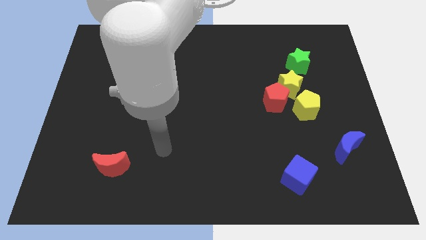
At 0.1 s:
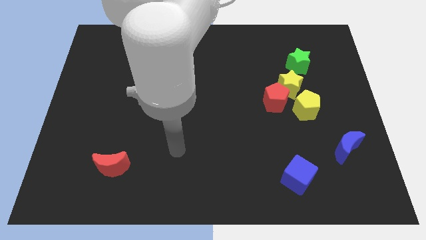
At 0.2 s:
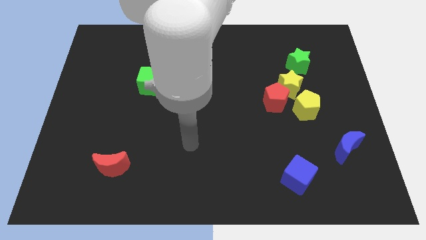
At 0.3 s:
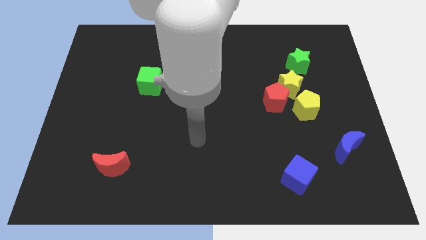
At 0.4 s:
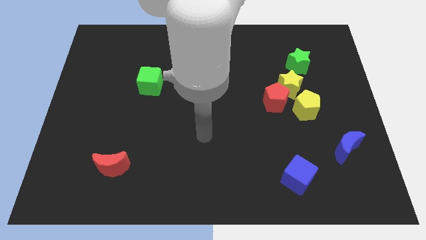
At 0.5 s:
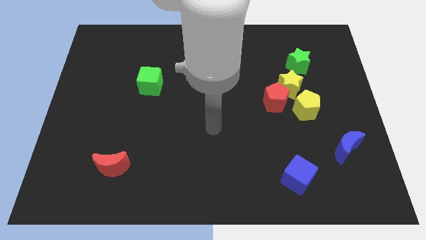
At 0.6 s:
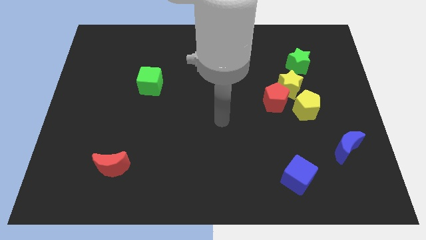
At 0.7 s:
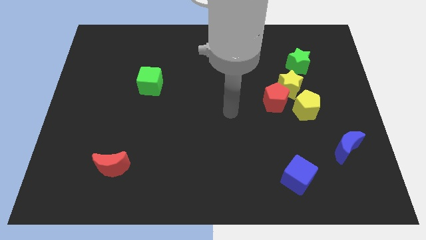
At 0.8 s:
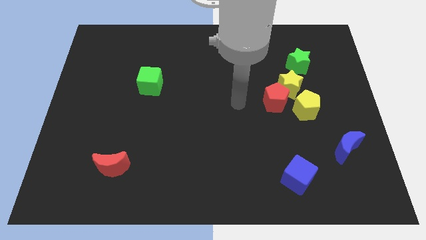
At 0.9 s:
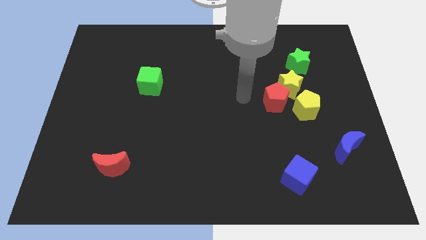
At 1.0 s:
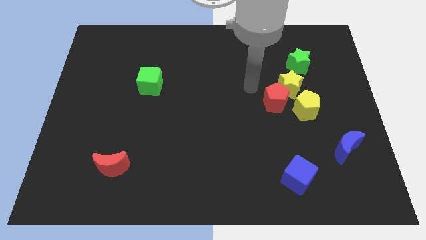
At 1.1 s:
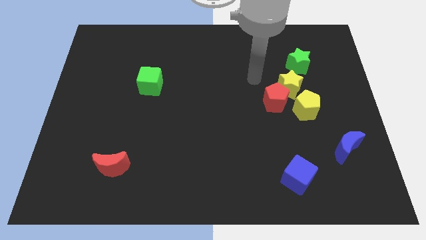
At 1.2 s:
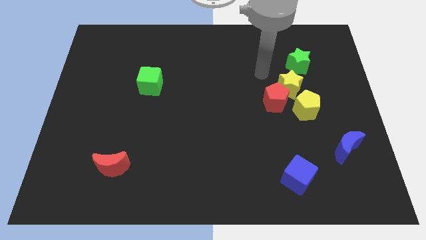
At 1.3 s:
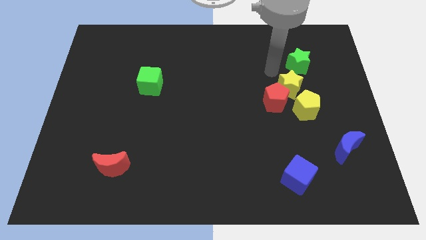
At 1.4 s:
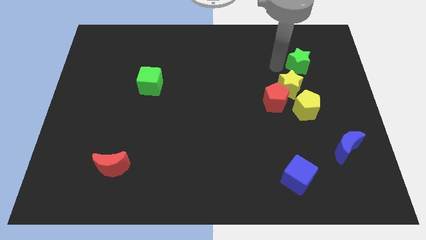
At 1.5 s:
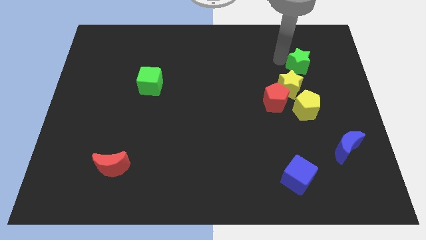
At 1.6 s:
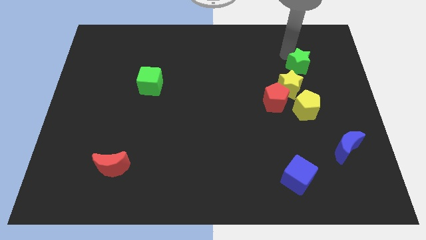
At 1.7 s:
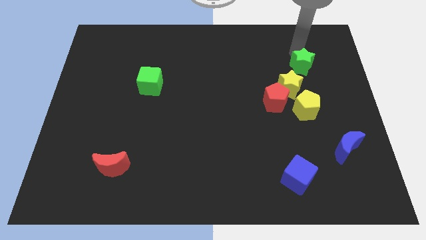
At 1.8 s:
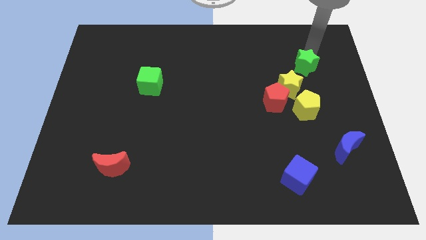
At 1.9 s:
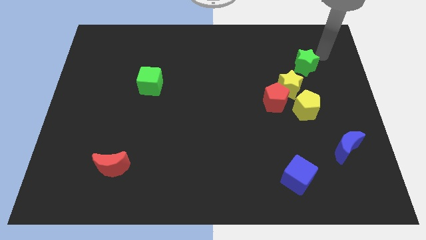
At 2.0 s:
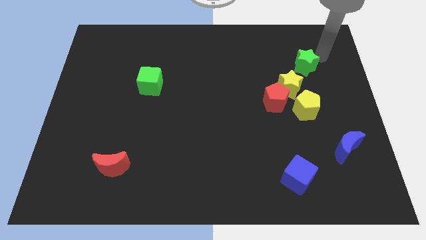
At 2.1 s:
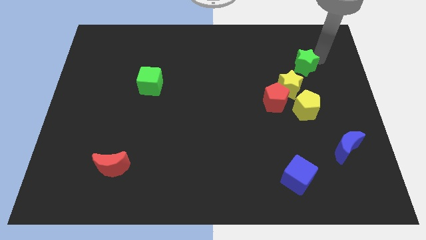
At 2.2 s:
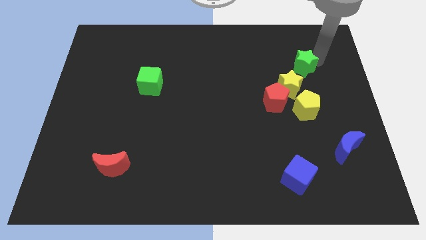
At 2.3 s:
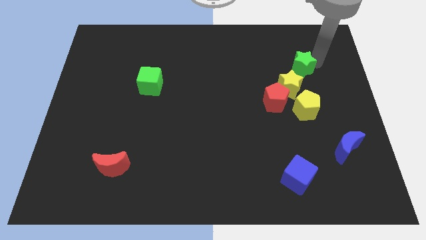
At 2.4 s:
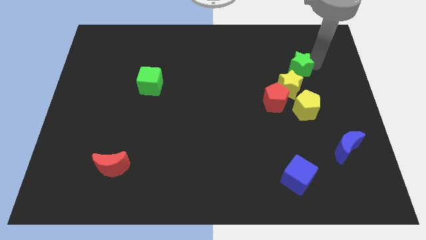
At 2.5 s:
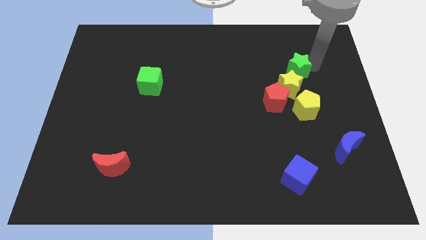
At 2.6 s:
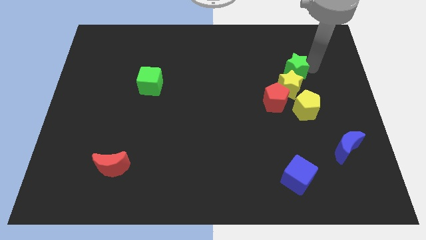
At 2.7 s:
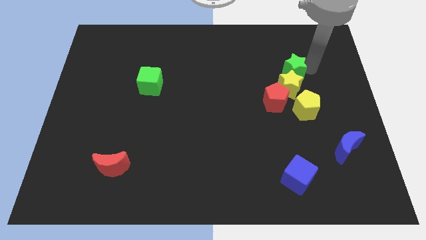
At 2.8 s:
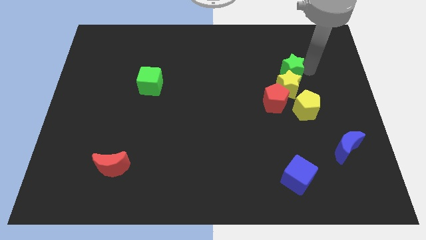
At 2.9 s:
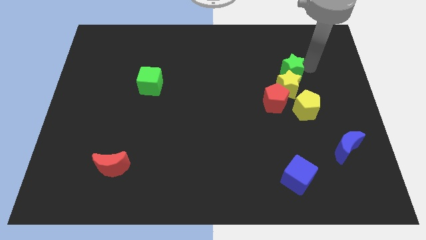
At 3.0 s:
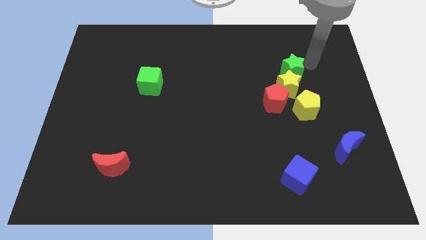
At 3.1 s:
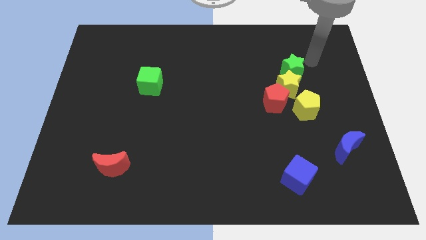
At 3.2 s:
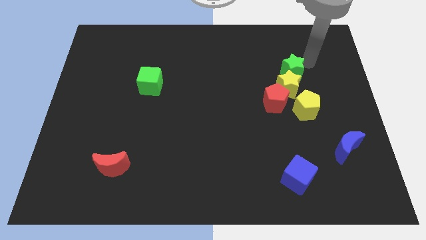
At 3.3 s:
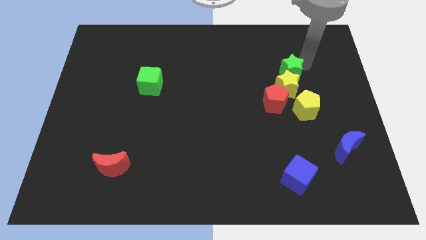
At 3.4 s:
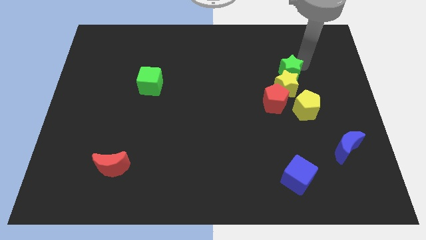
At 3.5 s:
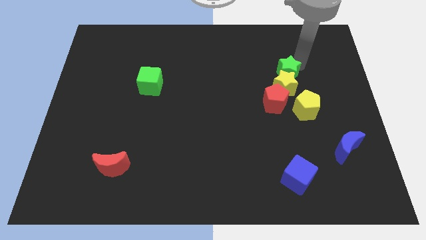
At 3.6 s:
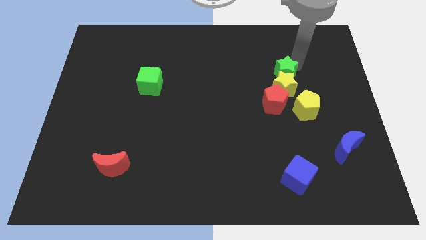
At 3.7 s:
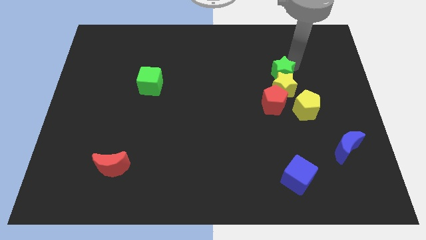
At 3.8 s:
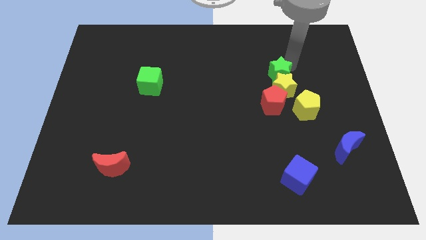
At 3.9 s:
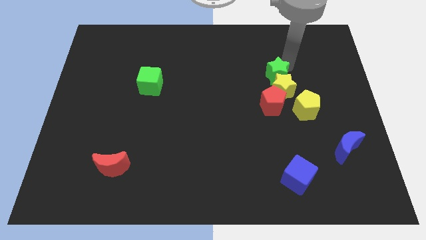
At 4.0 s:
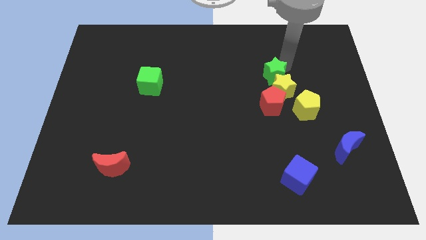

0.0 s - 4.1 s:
move the green star a little down and left diagonally

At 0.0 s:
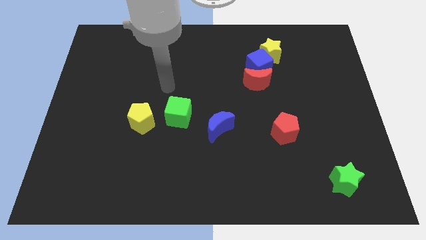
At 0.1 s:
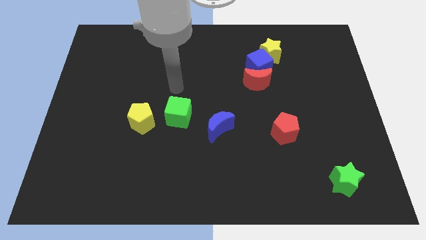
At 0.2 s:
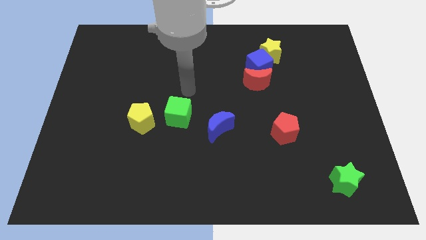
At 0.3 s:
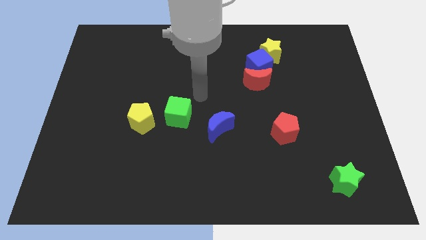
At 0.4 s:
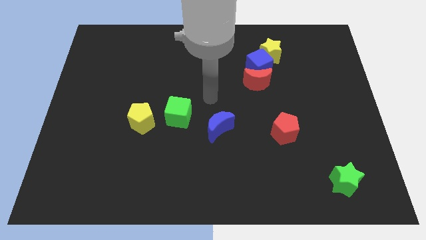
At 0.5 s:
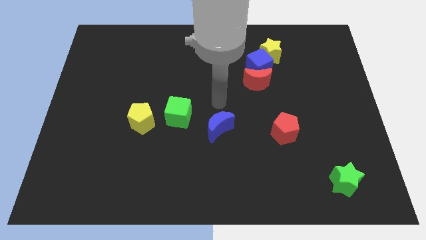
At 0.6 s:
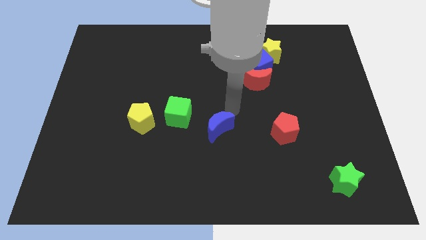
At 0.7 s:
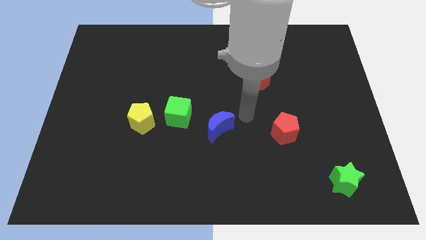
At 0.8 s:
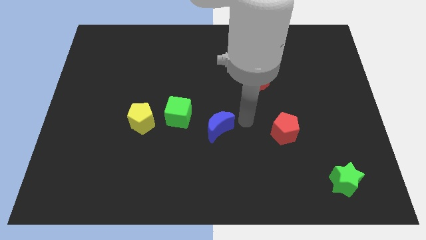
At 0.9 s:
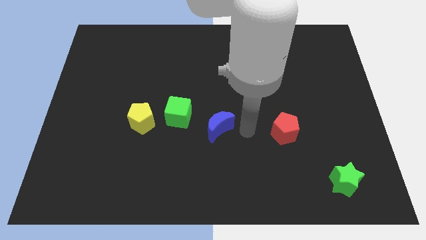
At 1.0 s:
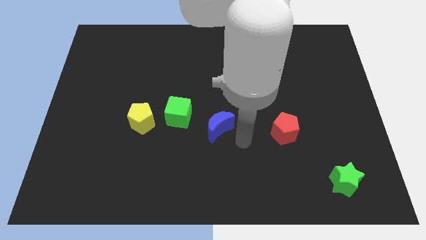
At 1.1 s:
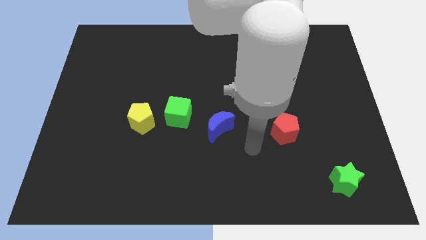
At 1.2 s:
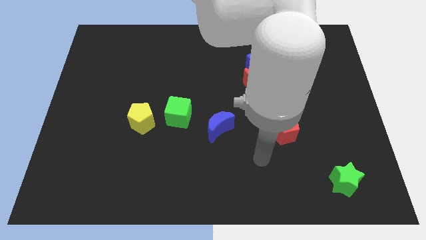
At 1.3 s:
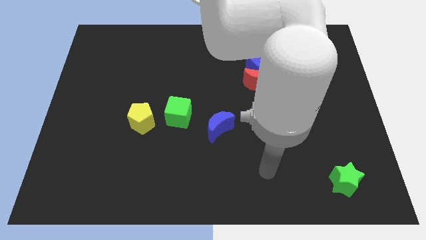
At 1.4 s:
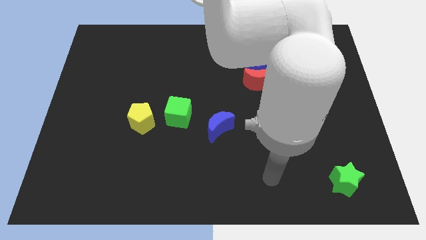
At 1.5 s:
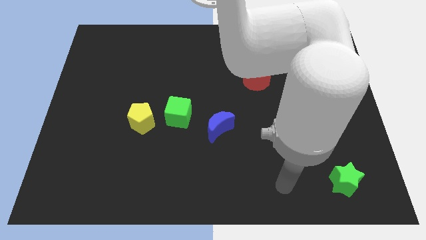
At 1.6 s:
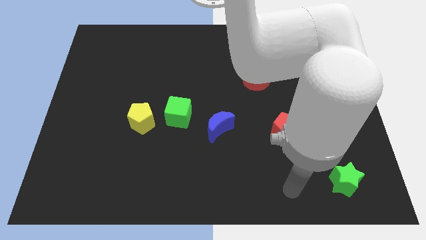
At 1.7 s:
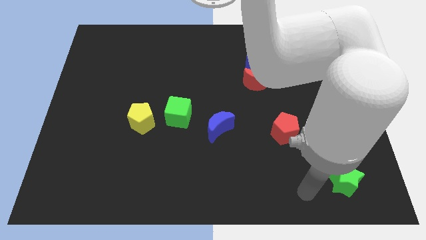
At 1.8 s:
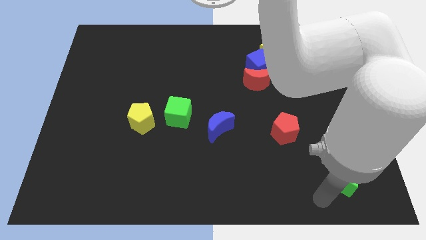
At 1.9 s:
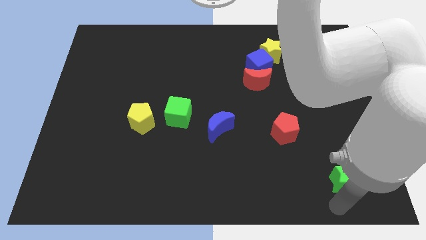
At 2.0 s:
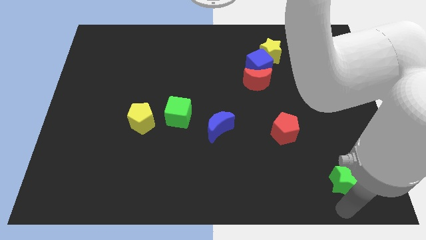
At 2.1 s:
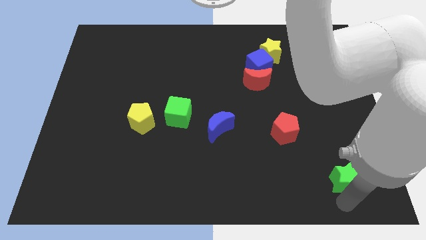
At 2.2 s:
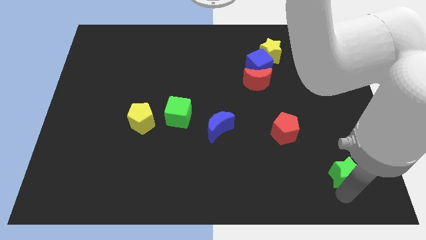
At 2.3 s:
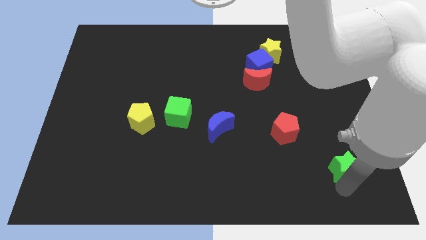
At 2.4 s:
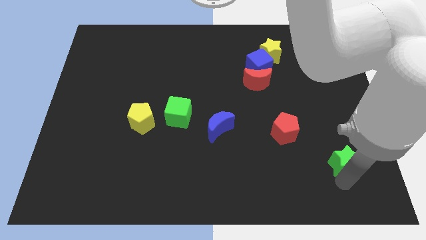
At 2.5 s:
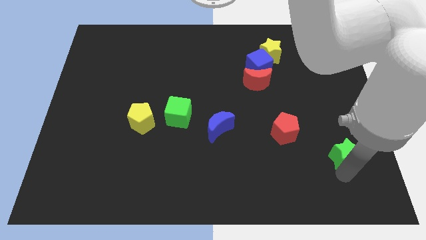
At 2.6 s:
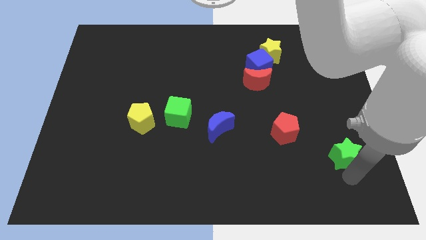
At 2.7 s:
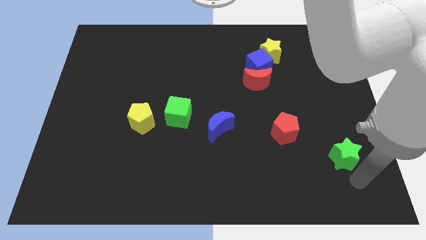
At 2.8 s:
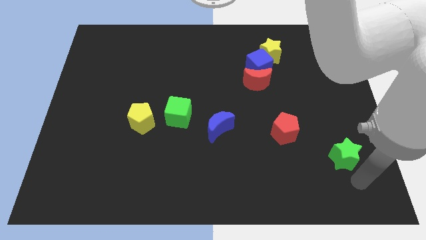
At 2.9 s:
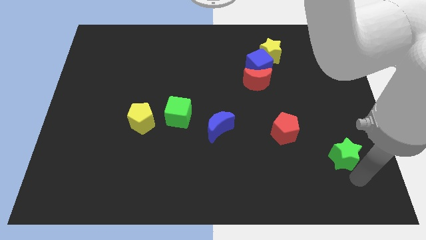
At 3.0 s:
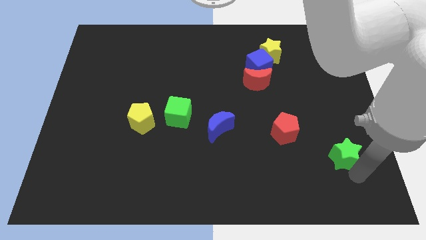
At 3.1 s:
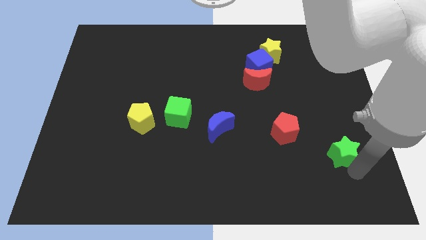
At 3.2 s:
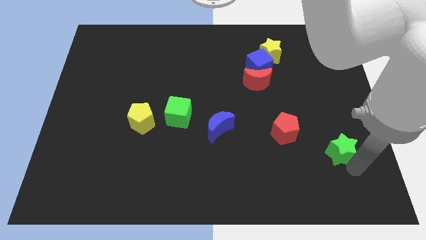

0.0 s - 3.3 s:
move the green star a little bit up

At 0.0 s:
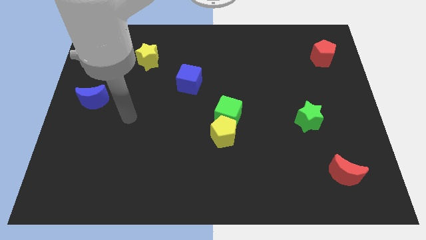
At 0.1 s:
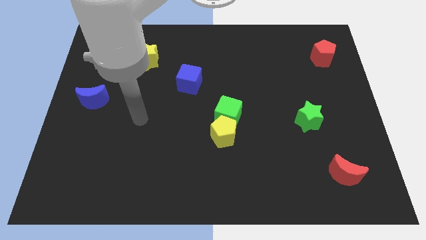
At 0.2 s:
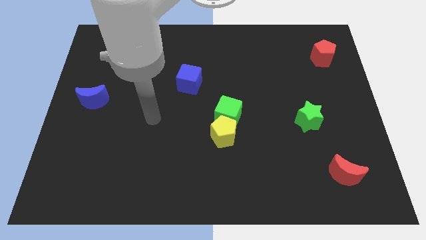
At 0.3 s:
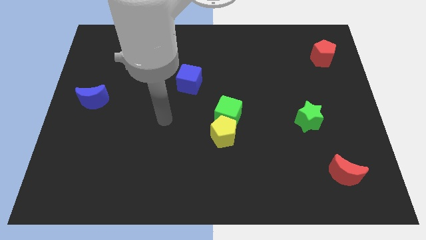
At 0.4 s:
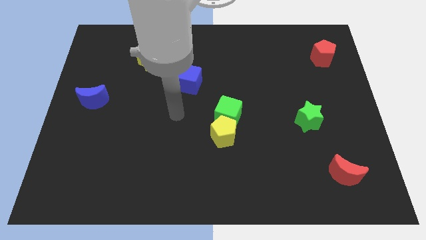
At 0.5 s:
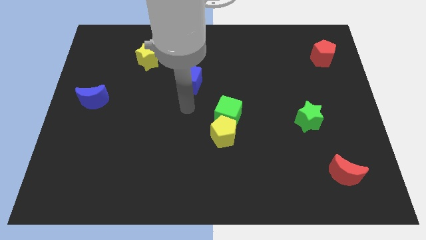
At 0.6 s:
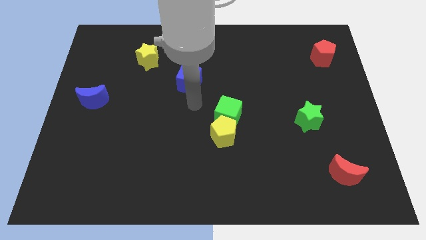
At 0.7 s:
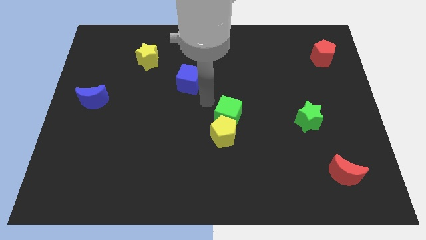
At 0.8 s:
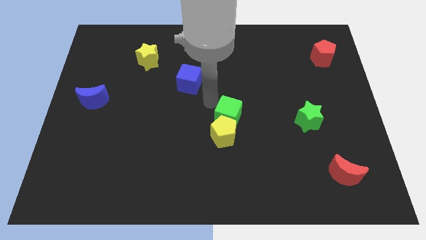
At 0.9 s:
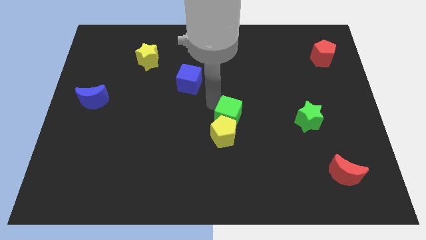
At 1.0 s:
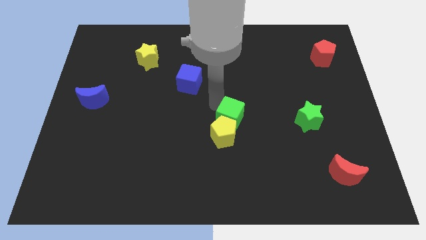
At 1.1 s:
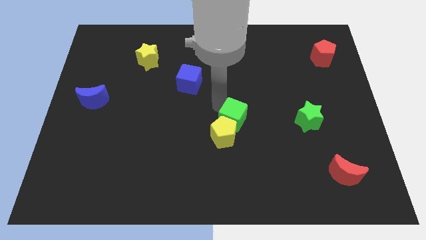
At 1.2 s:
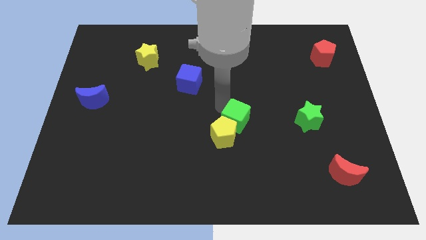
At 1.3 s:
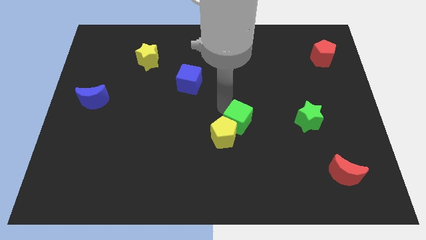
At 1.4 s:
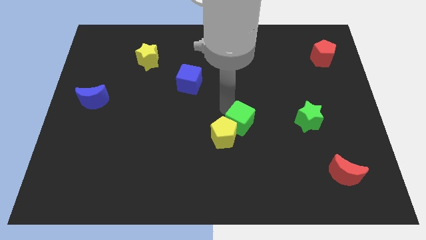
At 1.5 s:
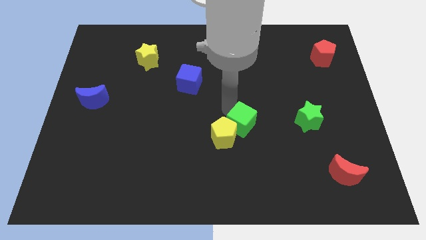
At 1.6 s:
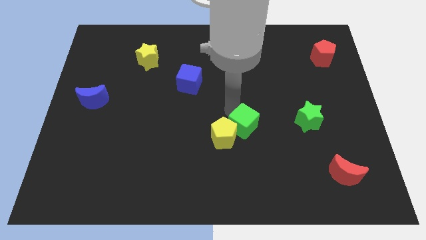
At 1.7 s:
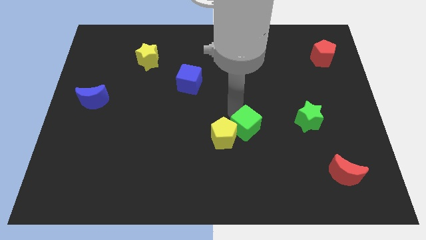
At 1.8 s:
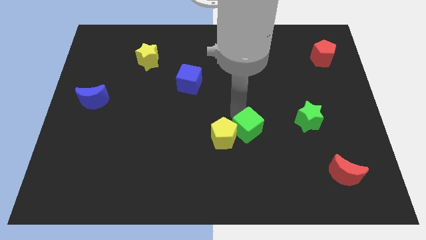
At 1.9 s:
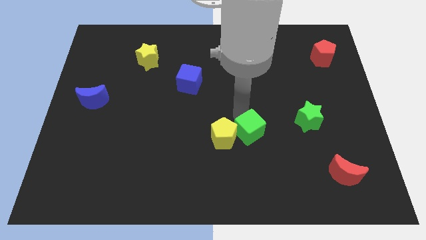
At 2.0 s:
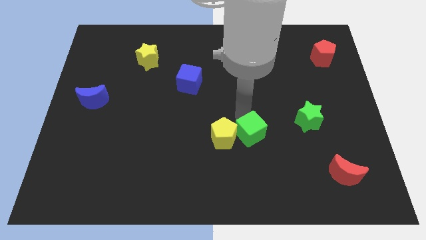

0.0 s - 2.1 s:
slightly slide the green cube diagonally downwards and right
